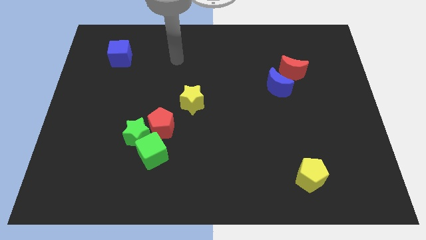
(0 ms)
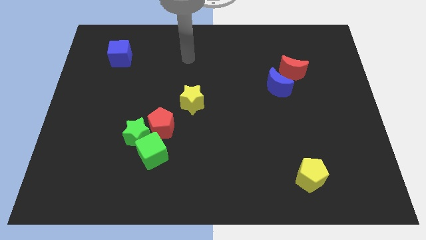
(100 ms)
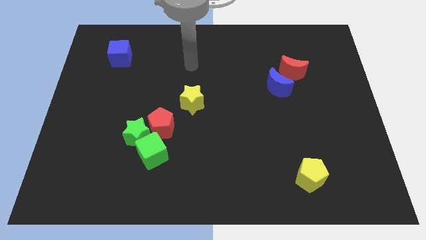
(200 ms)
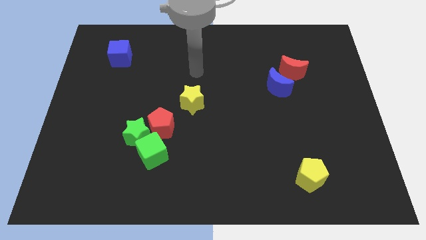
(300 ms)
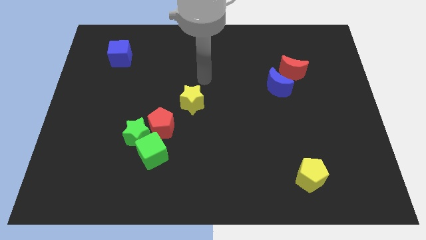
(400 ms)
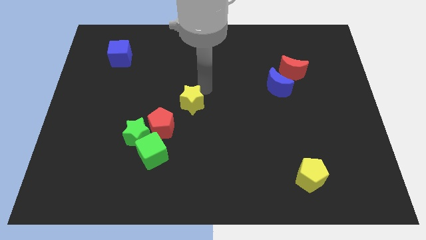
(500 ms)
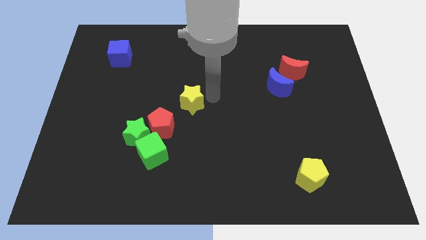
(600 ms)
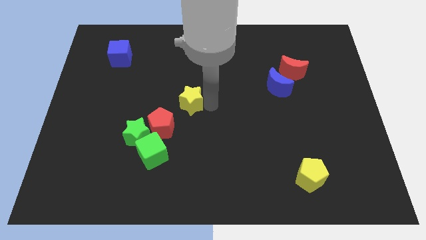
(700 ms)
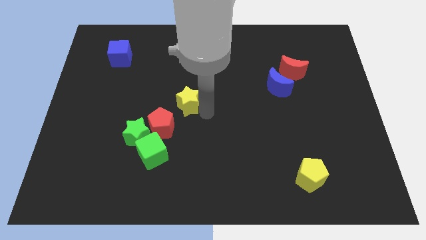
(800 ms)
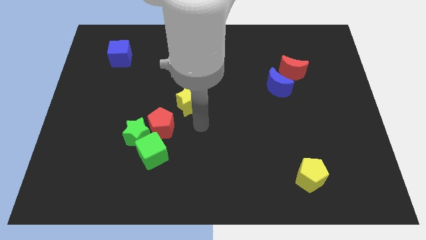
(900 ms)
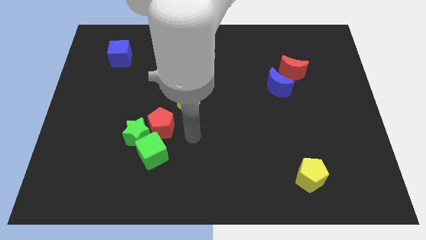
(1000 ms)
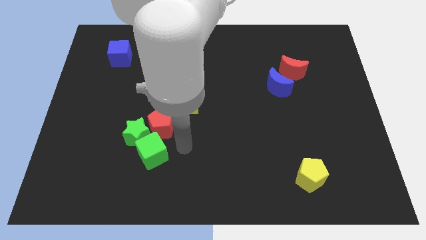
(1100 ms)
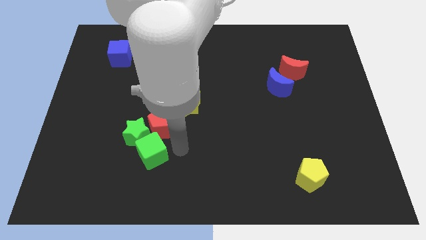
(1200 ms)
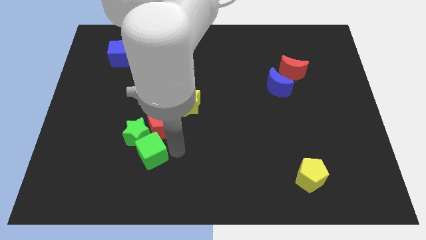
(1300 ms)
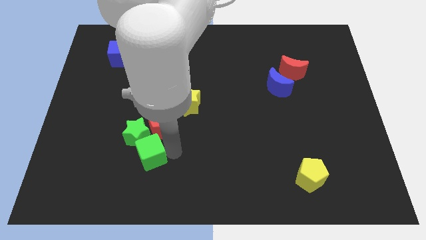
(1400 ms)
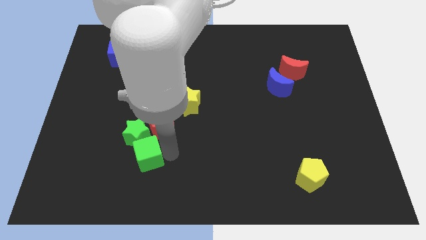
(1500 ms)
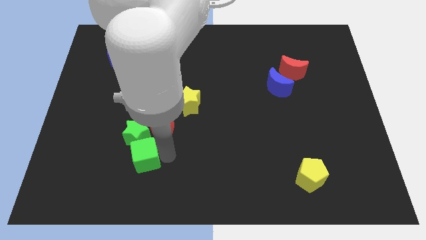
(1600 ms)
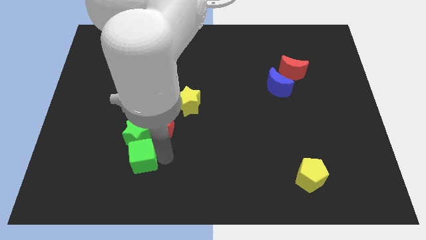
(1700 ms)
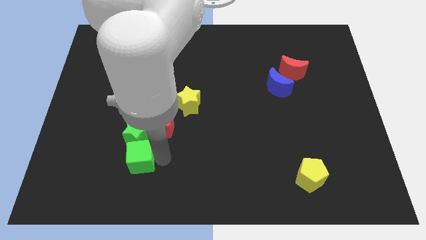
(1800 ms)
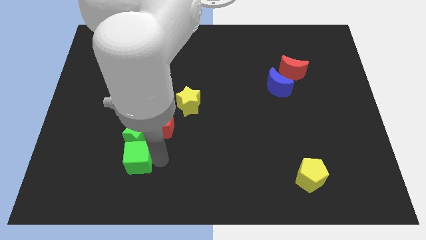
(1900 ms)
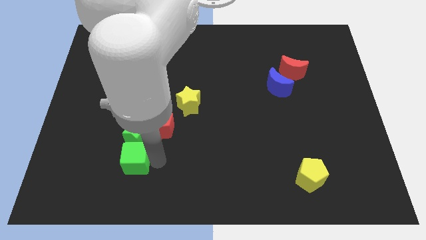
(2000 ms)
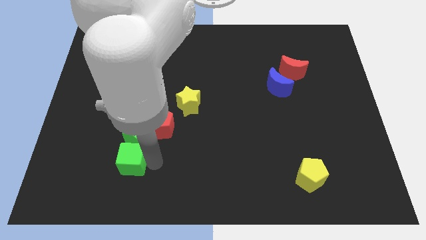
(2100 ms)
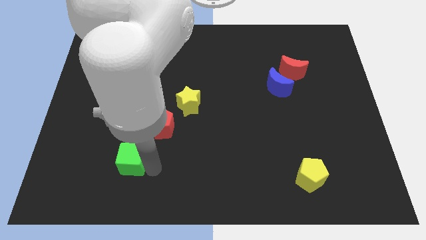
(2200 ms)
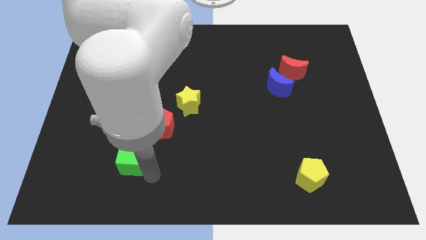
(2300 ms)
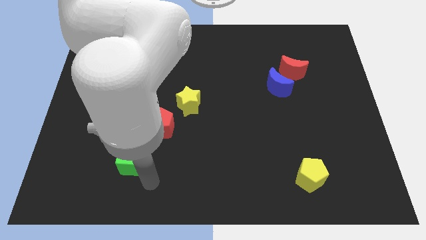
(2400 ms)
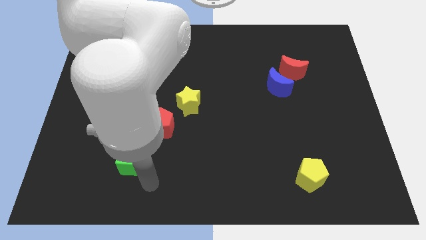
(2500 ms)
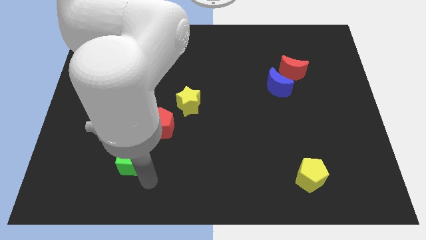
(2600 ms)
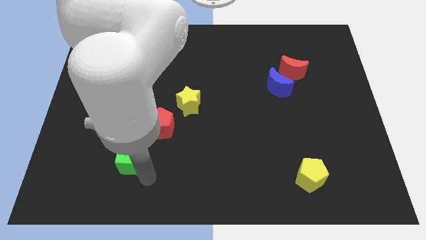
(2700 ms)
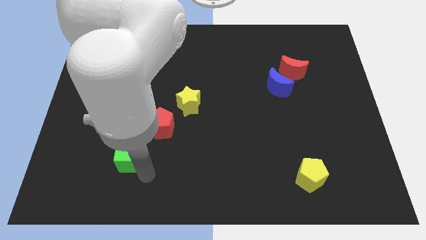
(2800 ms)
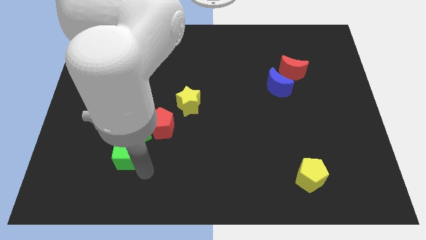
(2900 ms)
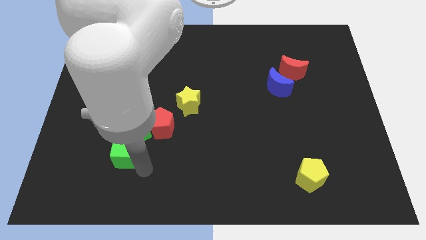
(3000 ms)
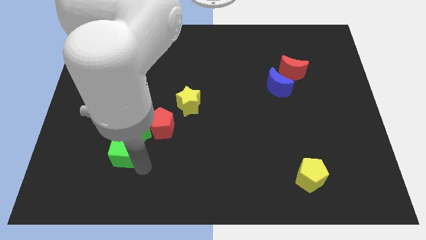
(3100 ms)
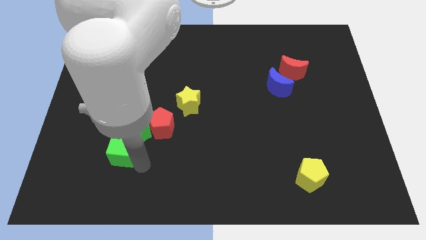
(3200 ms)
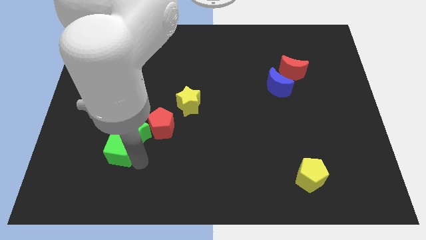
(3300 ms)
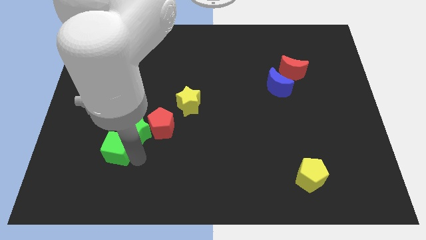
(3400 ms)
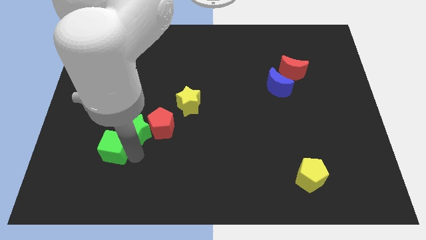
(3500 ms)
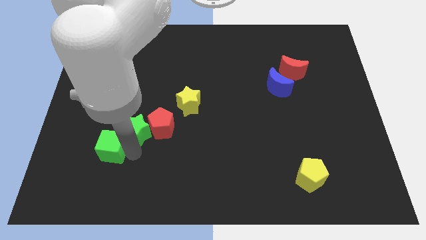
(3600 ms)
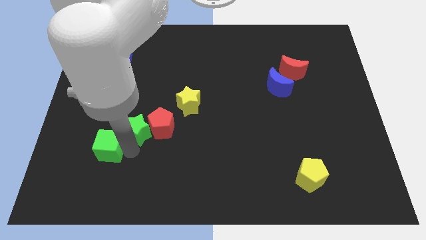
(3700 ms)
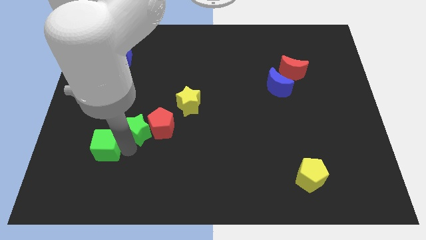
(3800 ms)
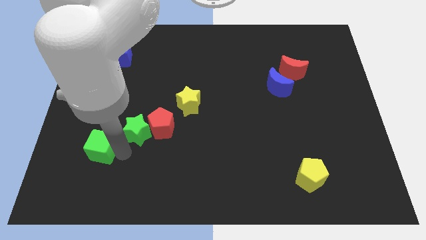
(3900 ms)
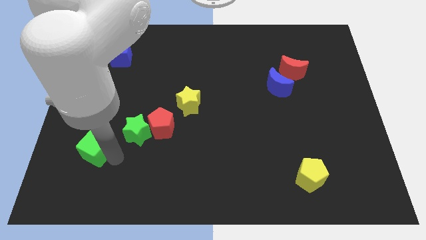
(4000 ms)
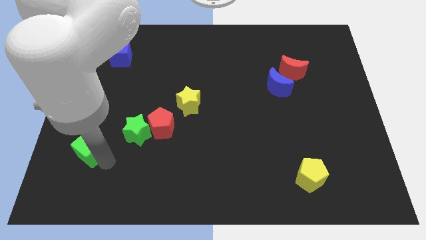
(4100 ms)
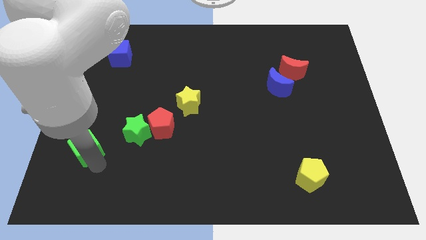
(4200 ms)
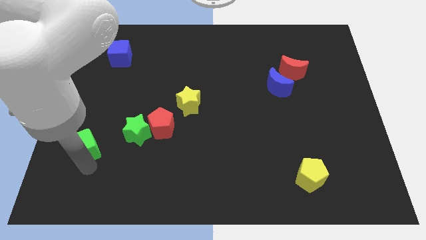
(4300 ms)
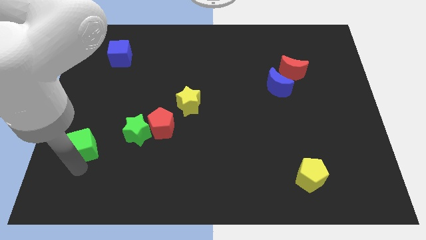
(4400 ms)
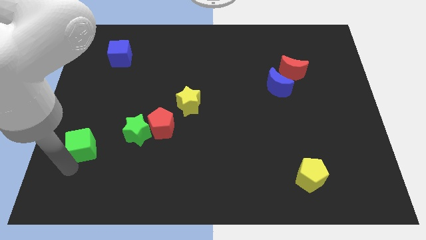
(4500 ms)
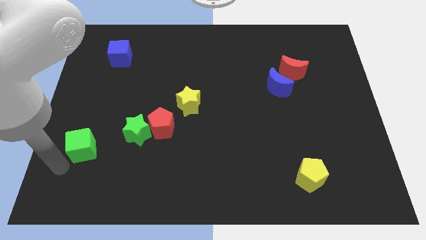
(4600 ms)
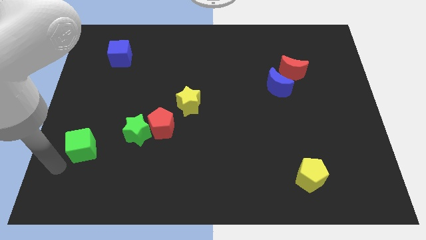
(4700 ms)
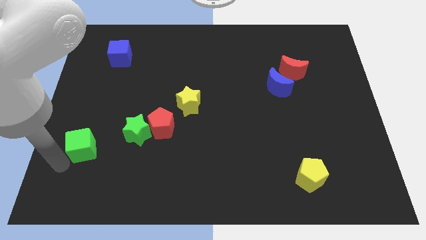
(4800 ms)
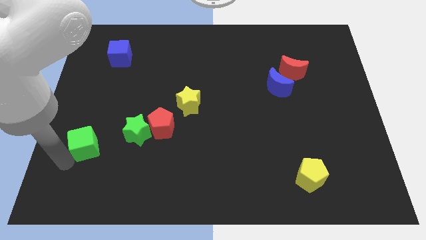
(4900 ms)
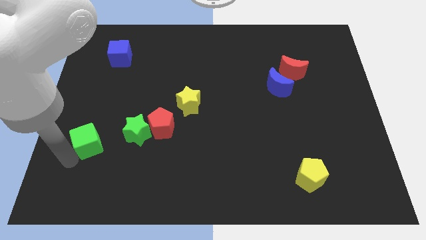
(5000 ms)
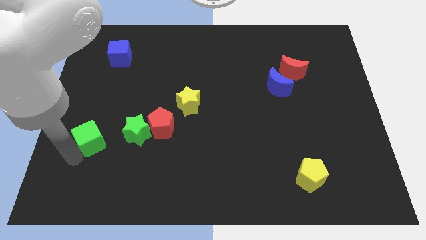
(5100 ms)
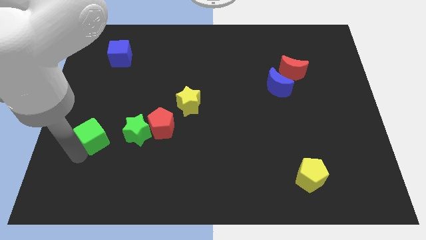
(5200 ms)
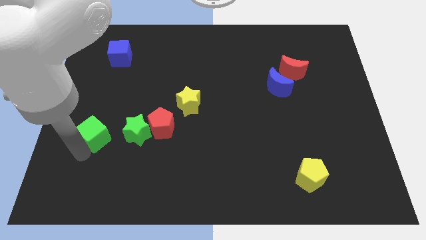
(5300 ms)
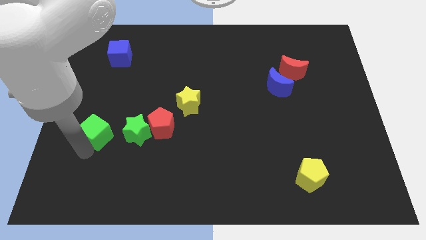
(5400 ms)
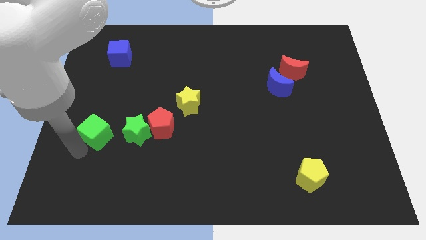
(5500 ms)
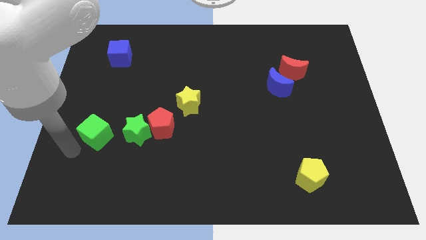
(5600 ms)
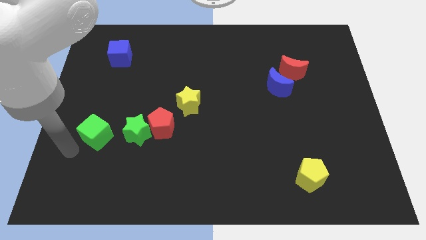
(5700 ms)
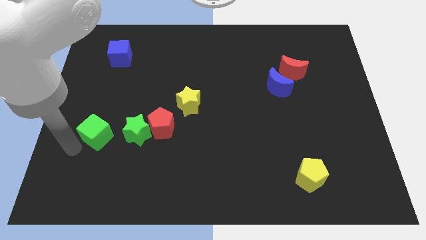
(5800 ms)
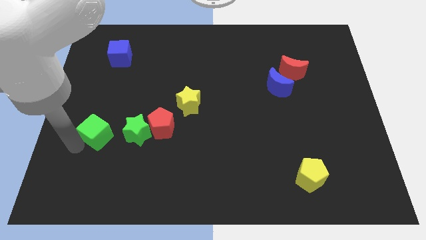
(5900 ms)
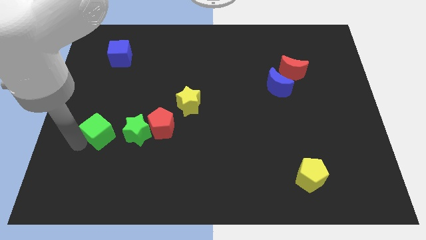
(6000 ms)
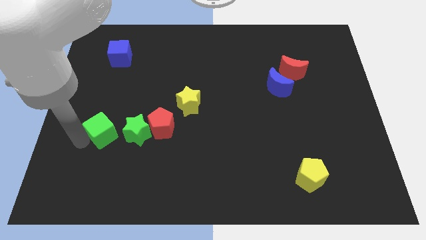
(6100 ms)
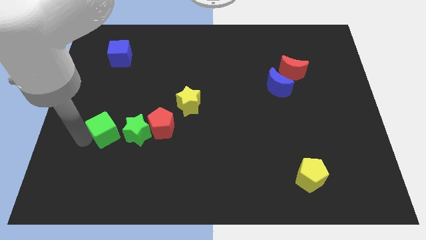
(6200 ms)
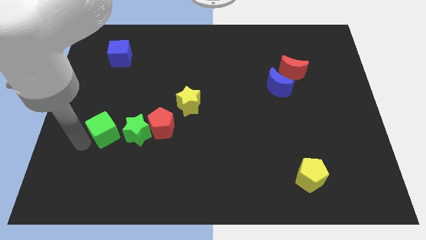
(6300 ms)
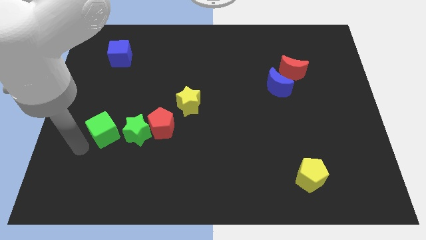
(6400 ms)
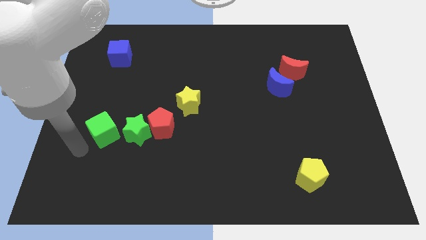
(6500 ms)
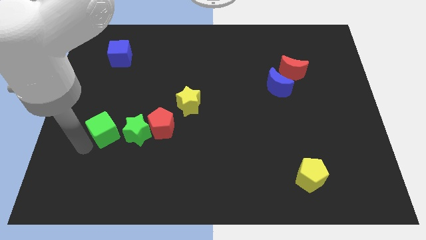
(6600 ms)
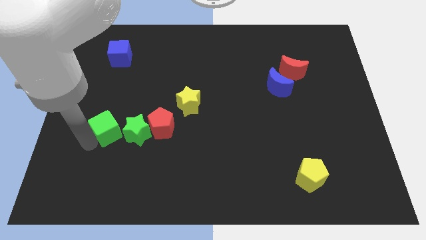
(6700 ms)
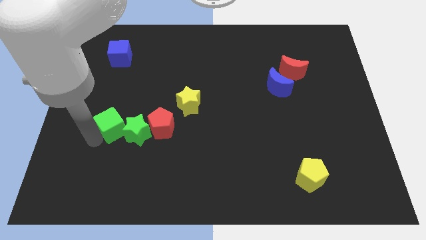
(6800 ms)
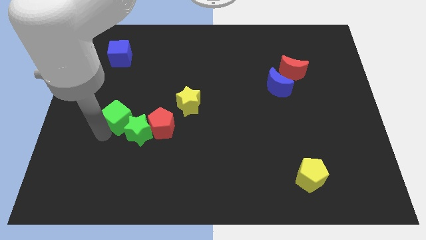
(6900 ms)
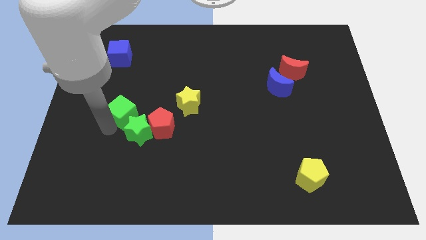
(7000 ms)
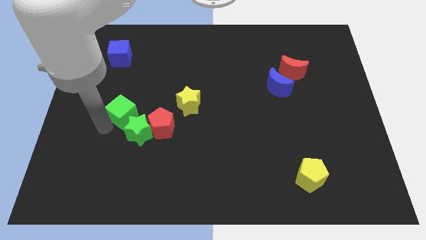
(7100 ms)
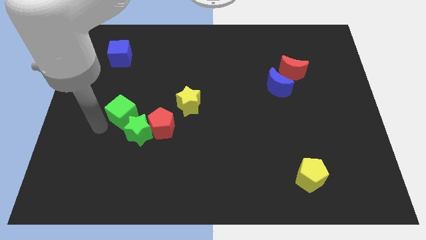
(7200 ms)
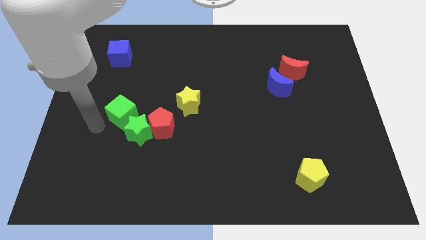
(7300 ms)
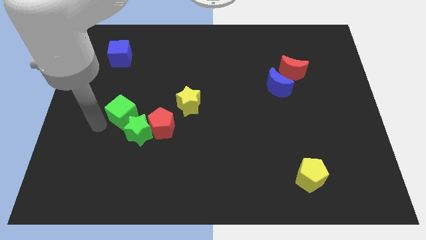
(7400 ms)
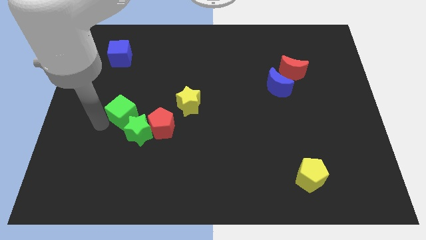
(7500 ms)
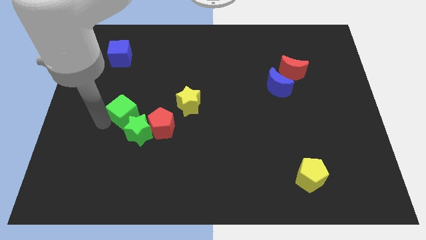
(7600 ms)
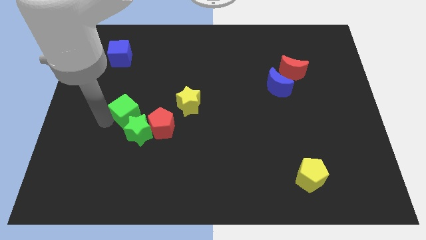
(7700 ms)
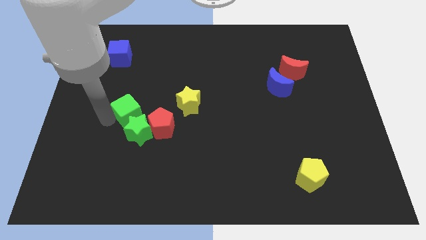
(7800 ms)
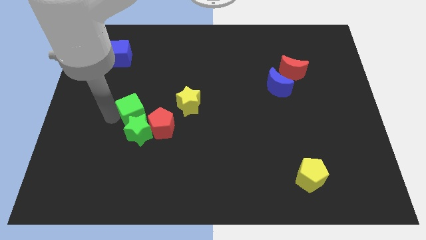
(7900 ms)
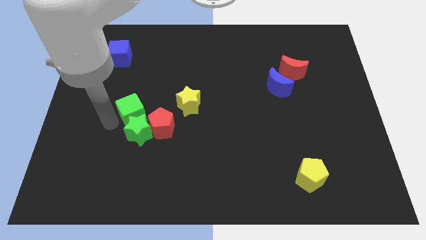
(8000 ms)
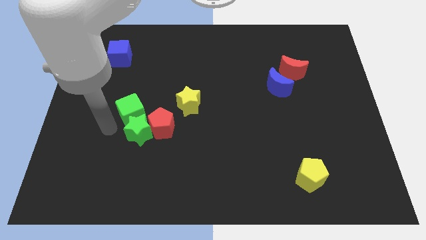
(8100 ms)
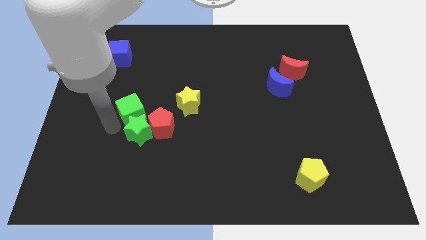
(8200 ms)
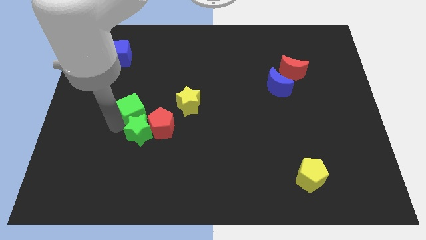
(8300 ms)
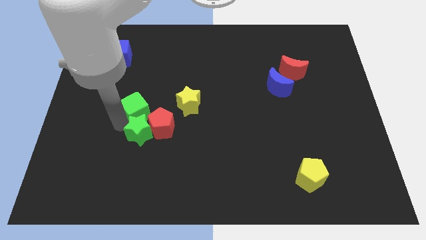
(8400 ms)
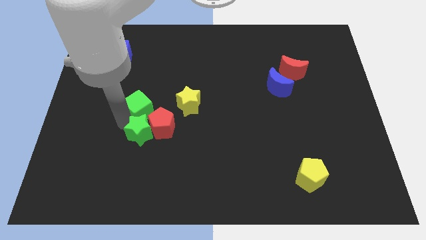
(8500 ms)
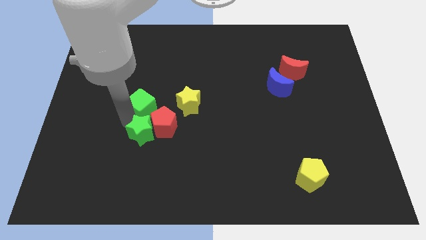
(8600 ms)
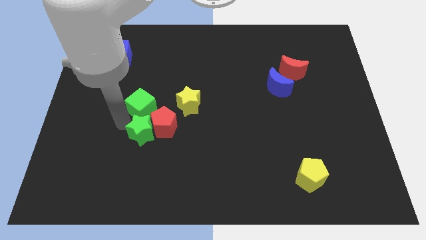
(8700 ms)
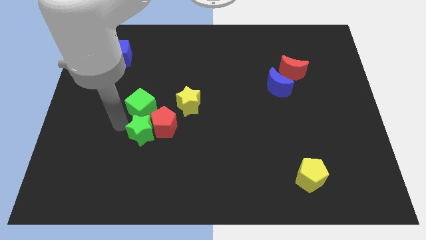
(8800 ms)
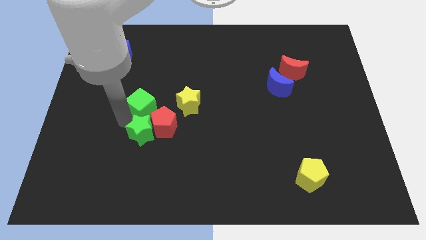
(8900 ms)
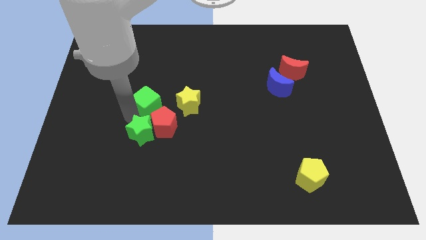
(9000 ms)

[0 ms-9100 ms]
move the green cube above the red pentagon
